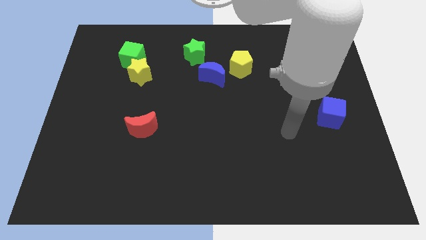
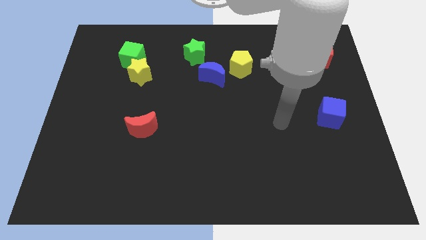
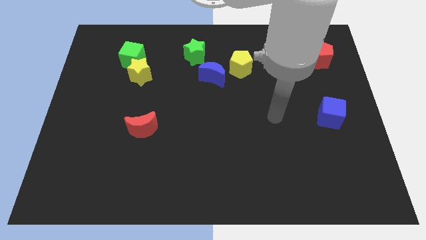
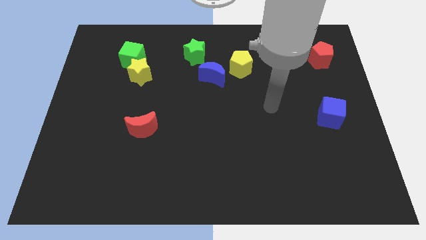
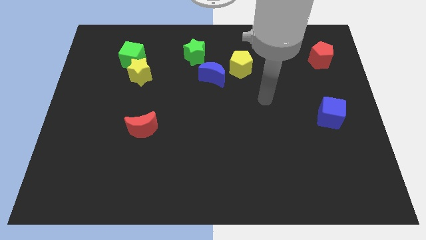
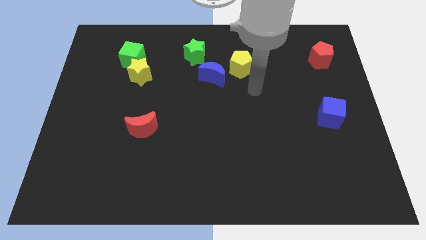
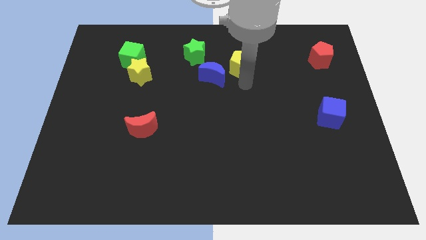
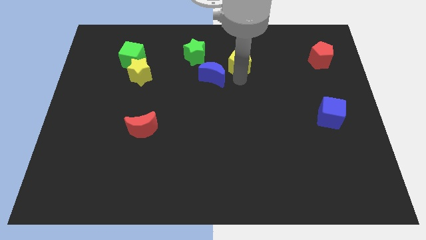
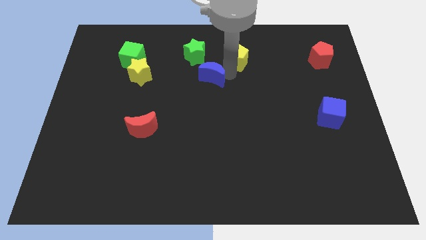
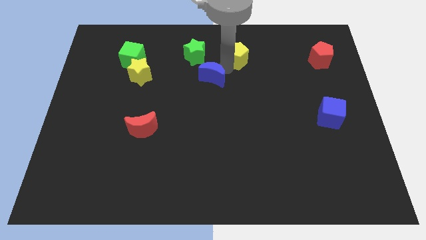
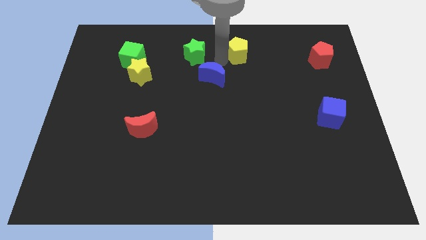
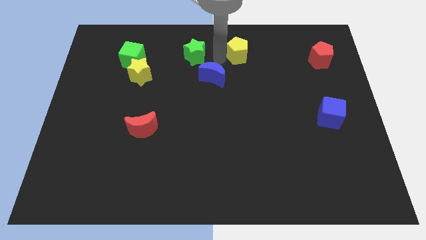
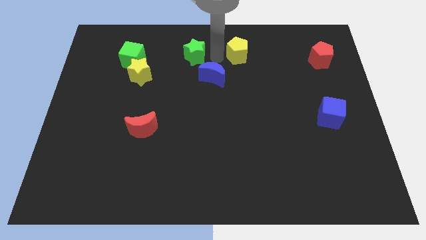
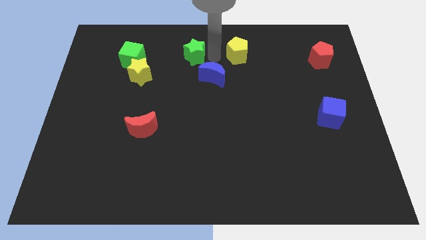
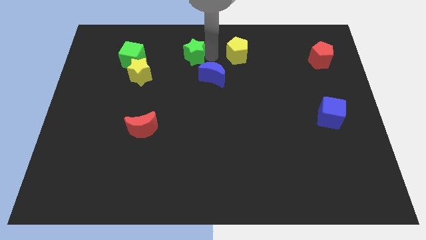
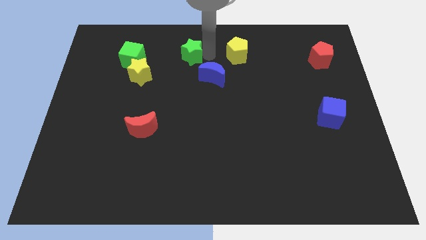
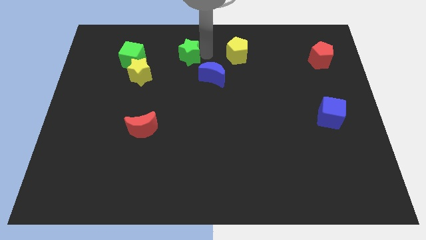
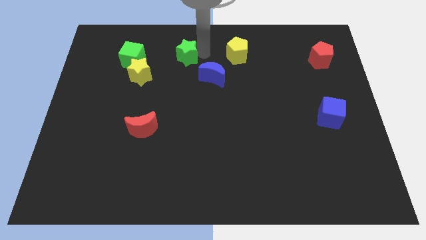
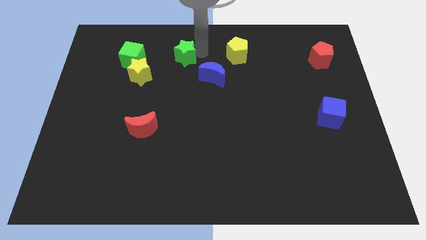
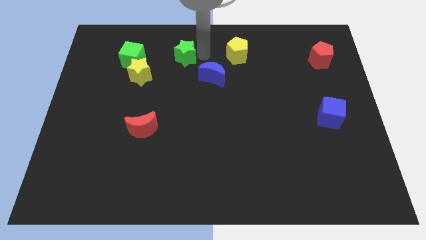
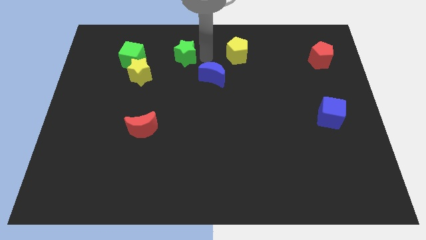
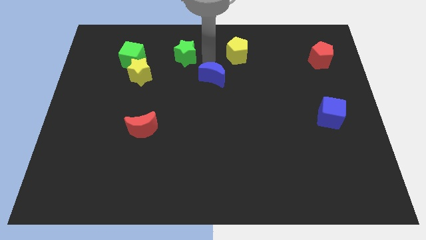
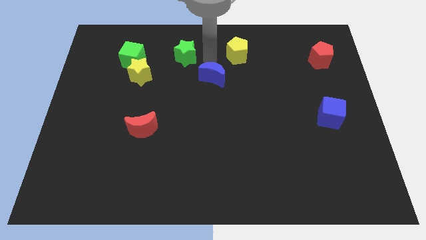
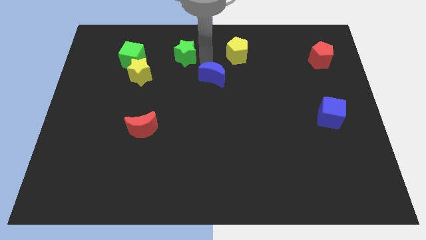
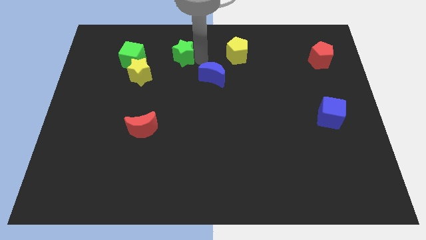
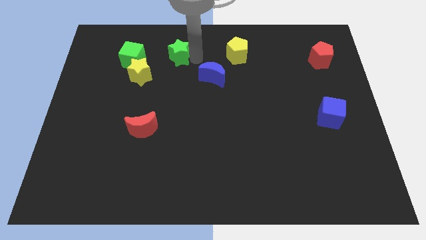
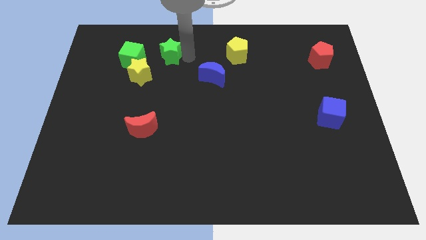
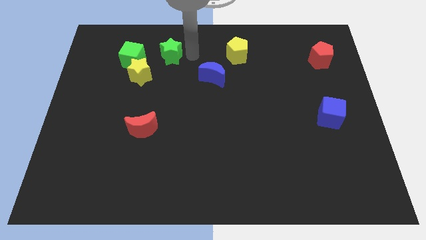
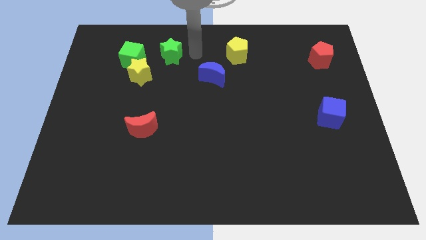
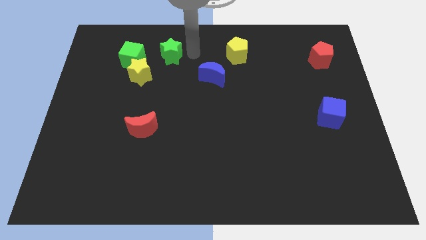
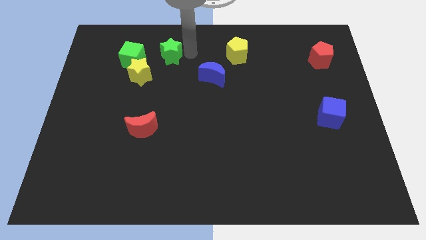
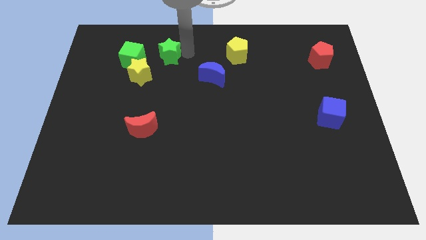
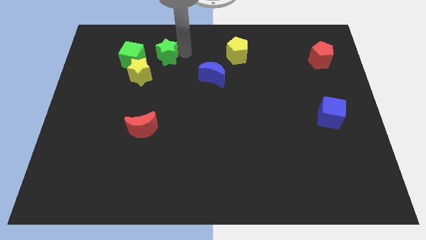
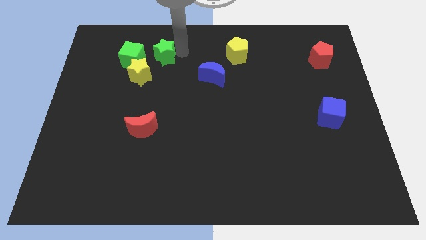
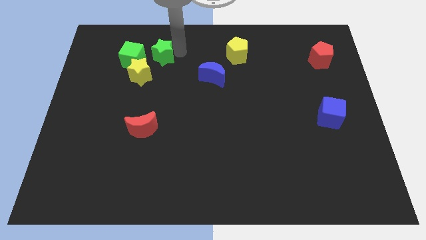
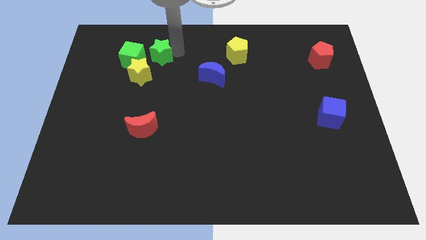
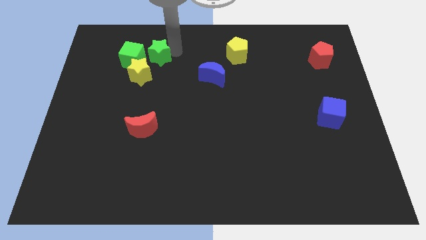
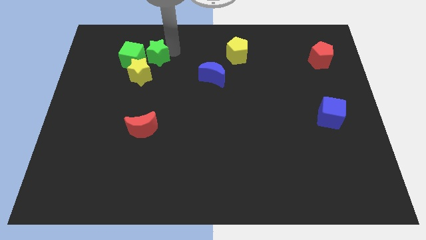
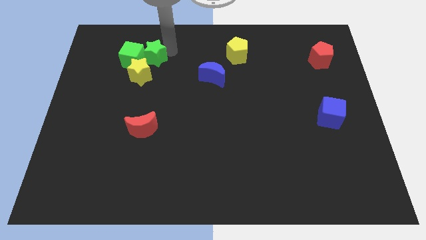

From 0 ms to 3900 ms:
push the green star close to the green cube

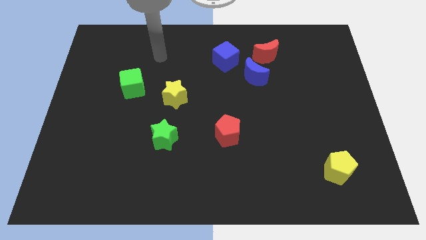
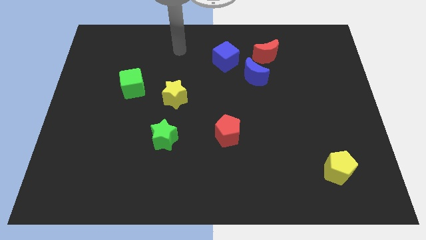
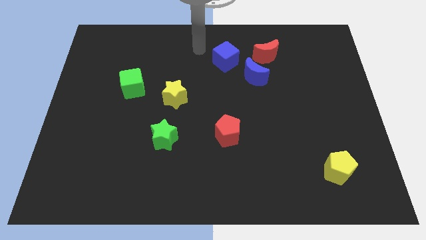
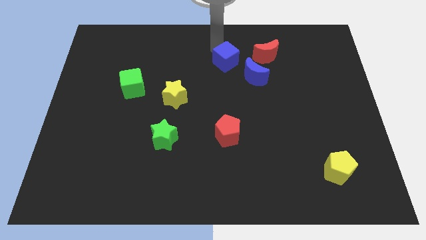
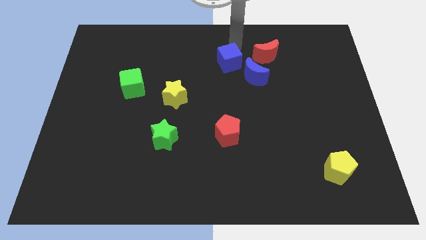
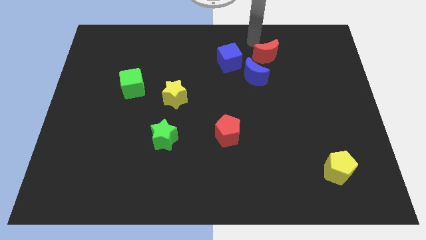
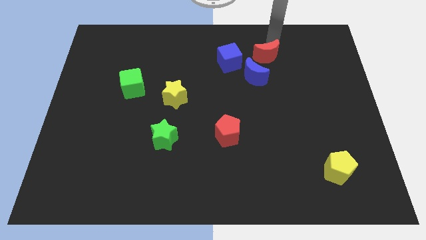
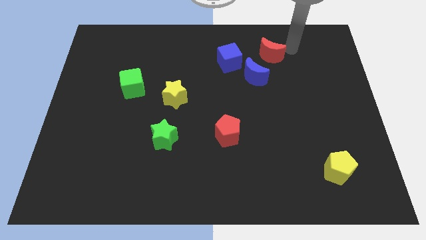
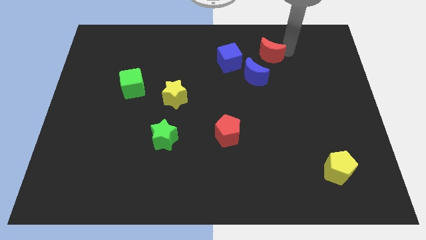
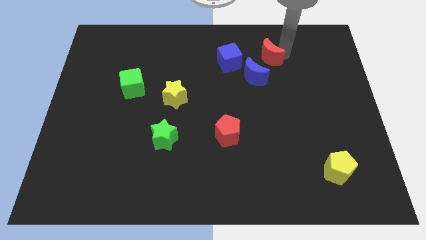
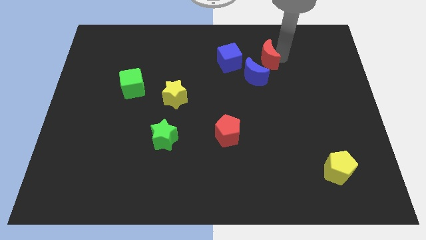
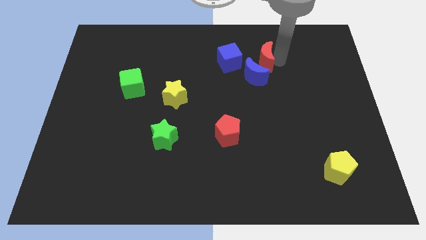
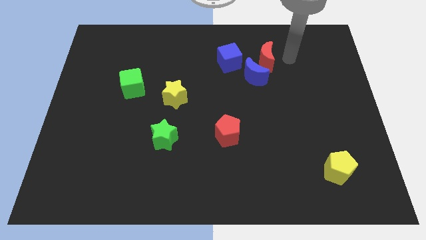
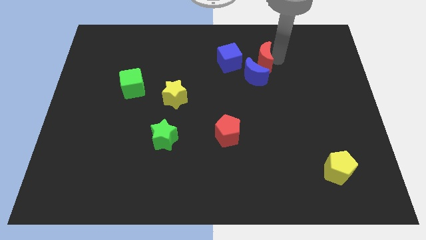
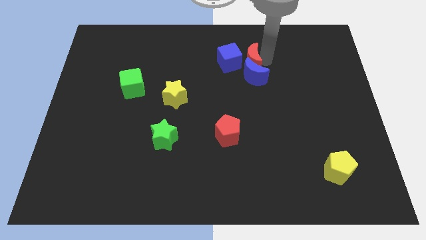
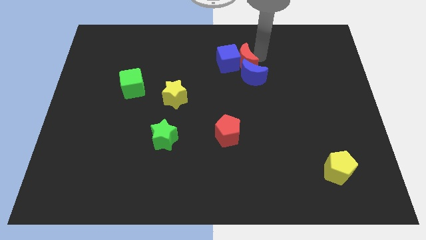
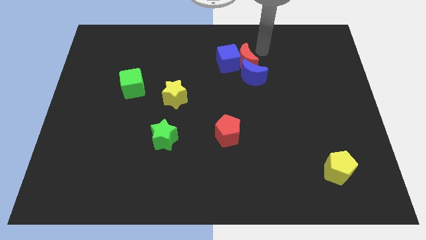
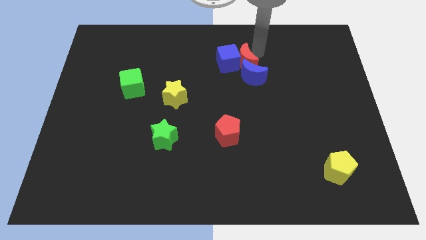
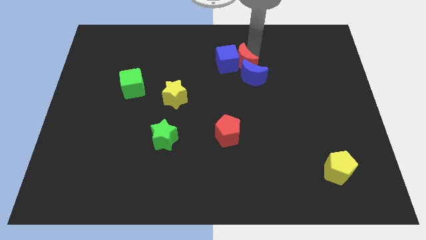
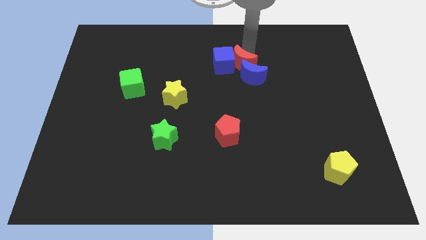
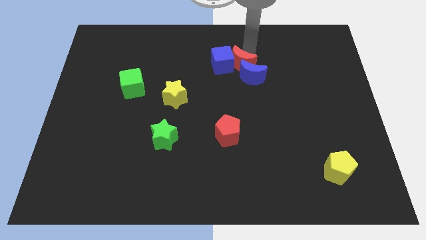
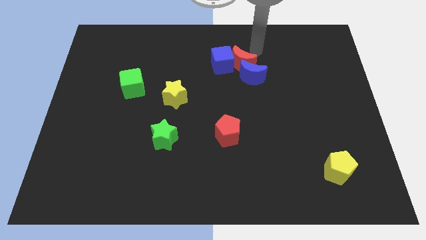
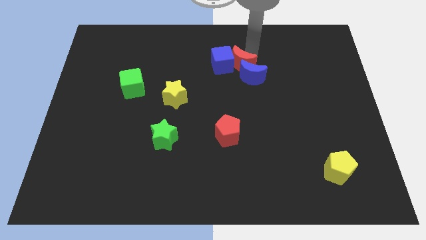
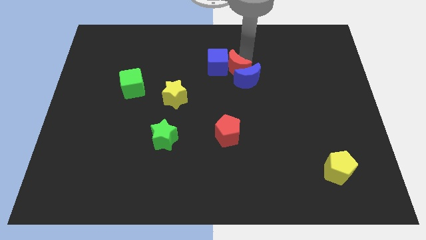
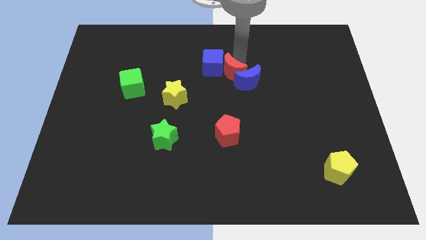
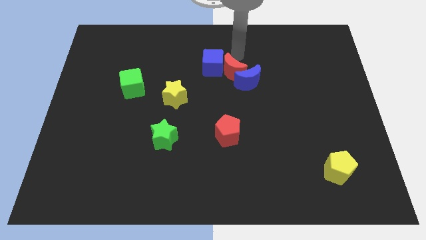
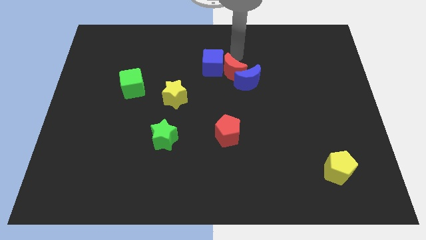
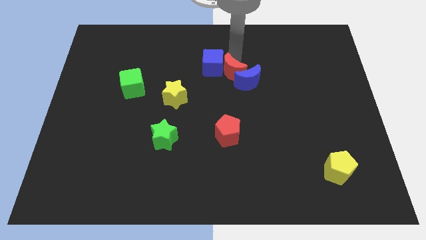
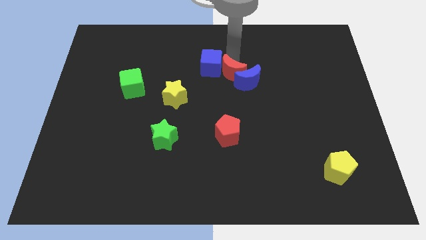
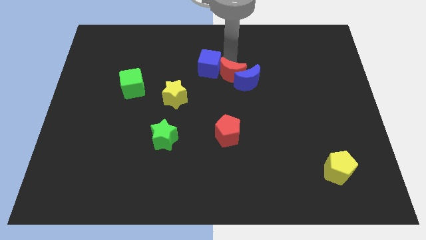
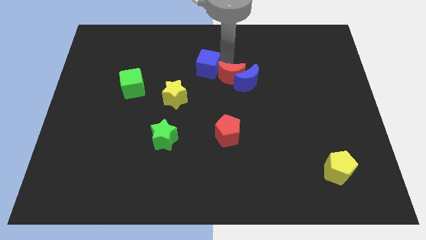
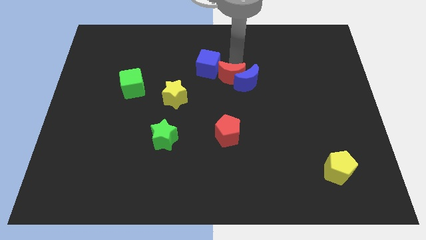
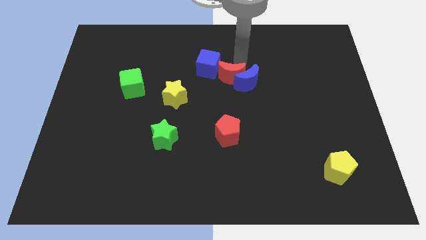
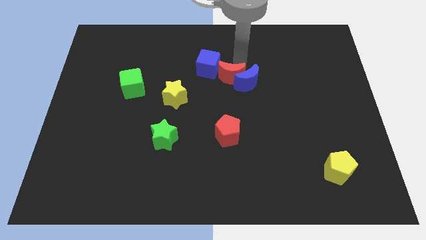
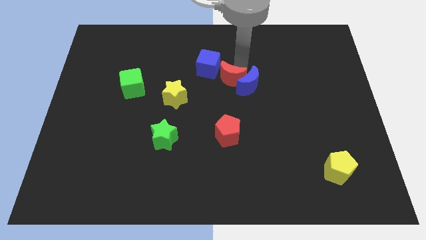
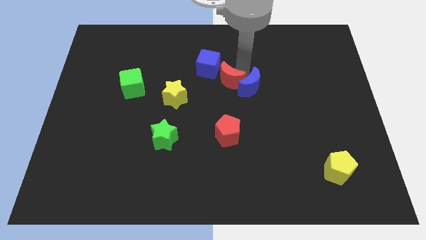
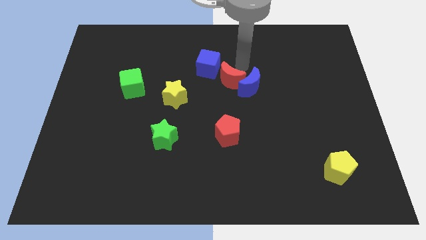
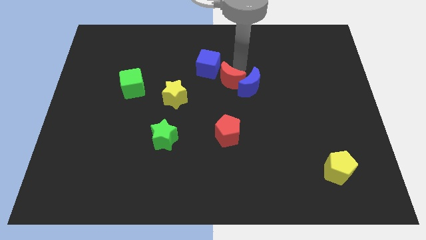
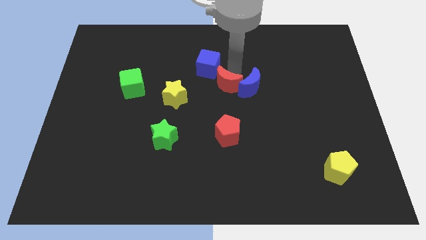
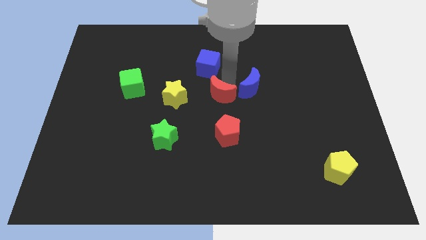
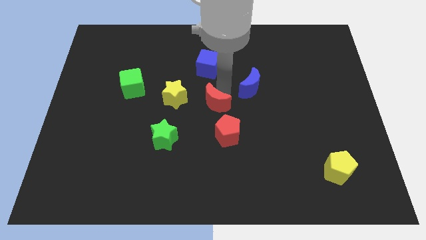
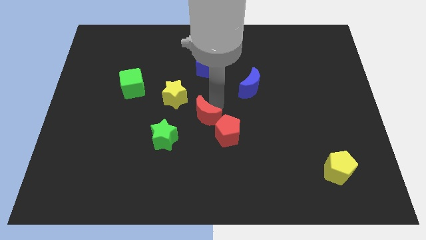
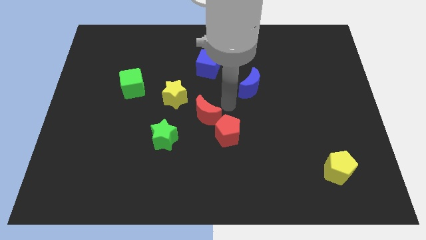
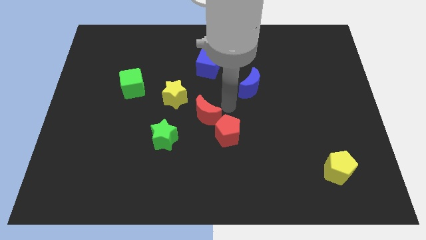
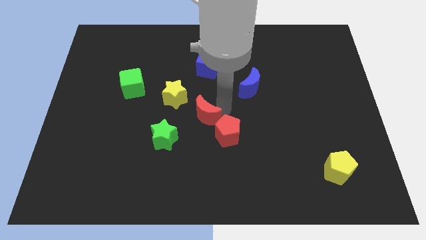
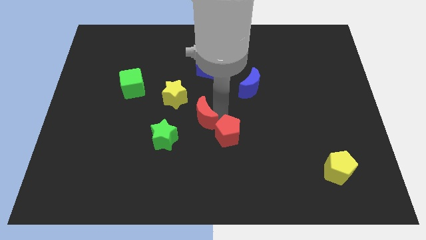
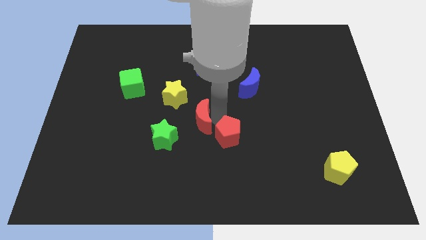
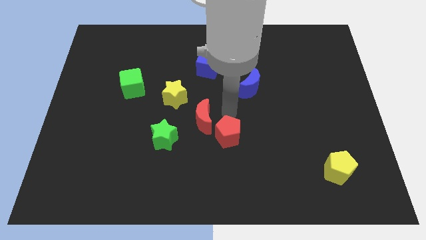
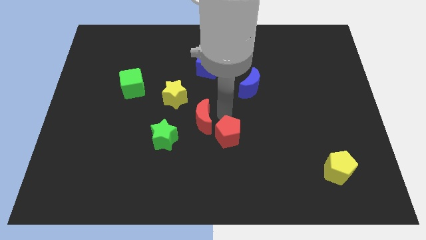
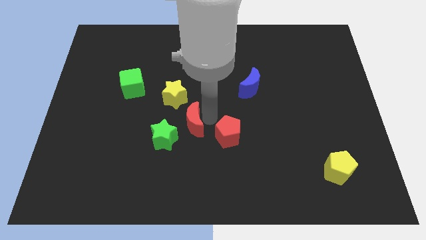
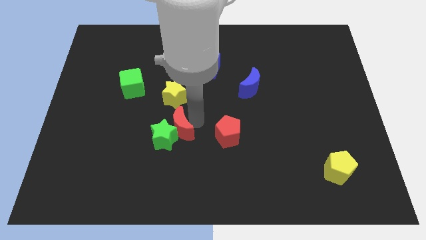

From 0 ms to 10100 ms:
put the red moon close to the green star
